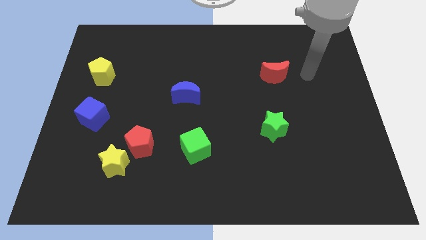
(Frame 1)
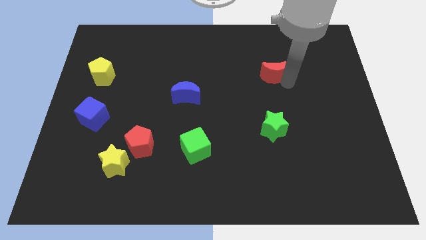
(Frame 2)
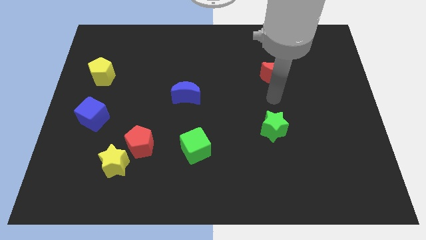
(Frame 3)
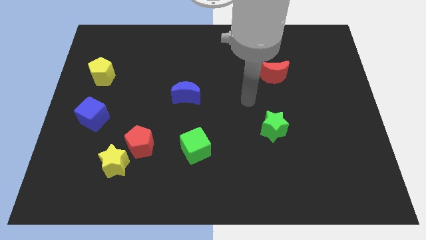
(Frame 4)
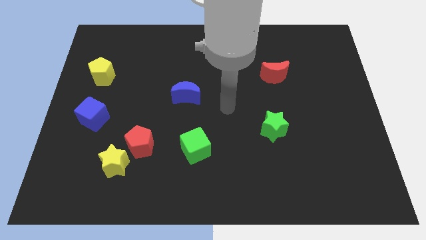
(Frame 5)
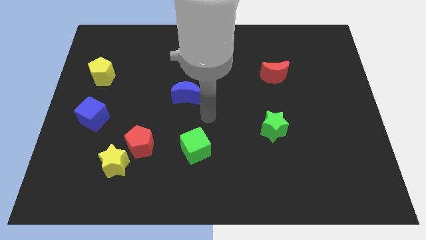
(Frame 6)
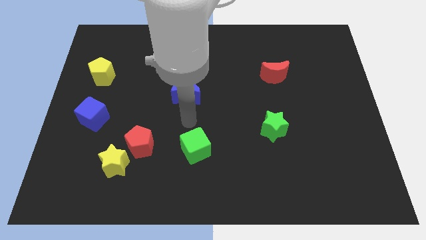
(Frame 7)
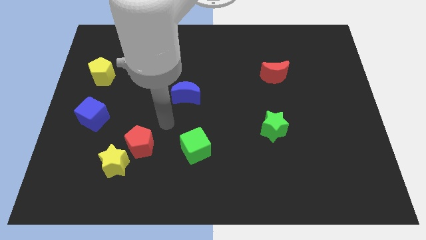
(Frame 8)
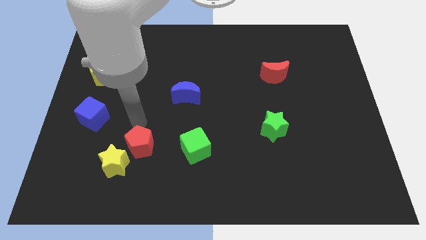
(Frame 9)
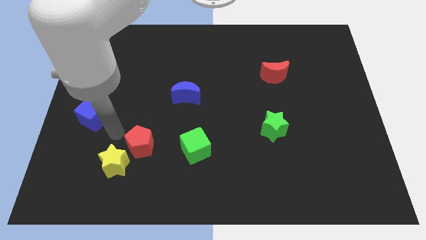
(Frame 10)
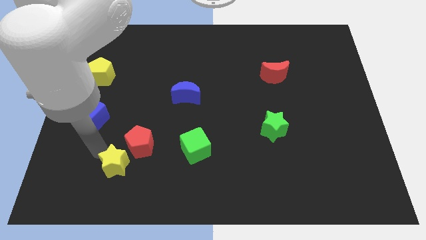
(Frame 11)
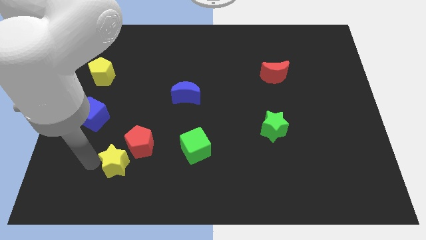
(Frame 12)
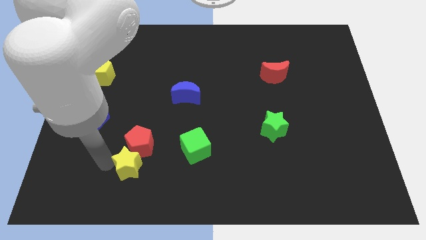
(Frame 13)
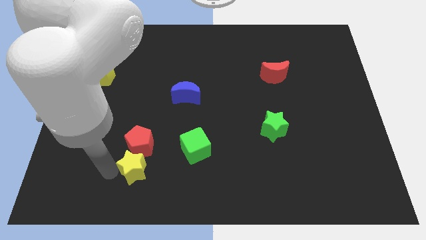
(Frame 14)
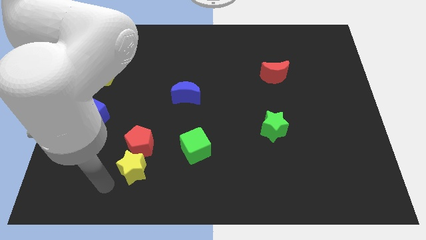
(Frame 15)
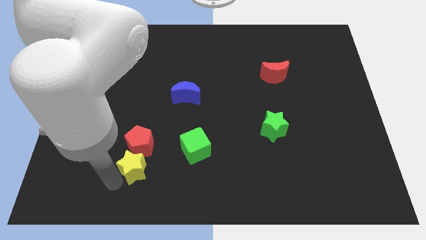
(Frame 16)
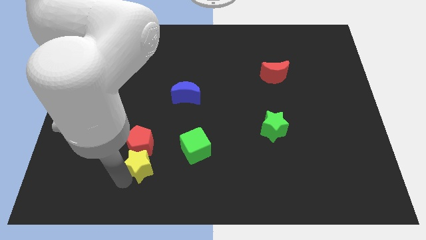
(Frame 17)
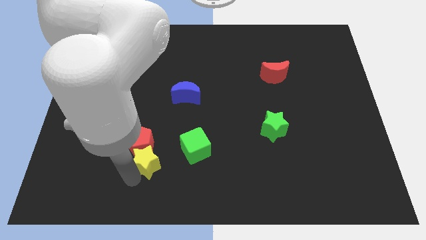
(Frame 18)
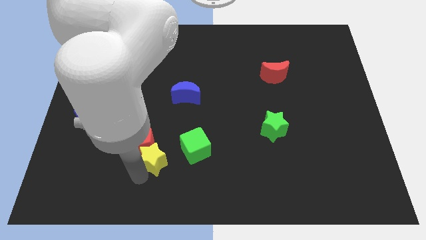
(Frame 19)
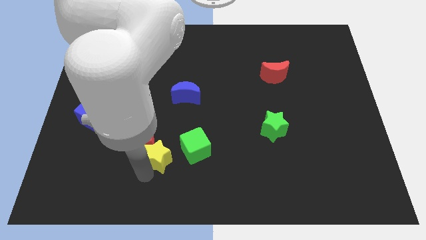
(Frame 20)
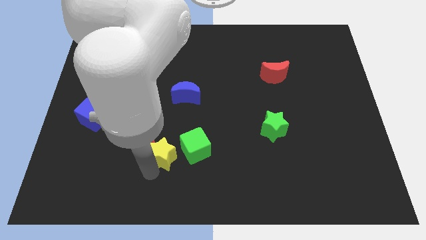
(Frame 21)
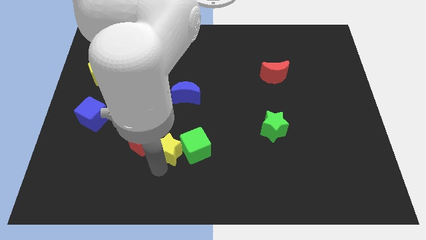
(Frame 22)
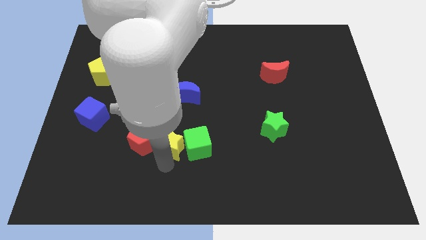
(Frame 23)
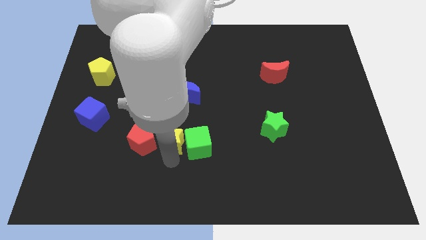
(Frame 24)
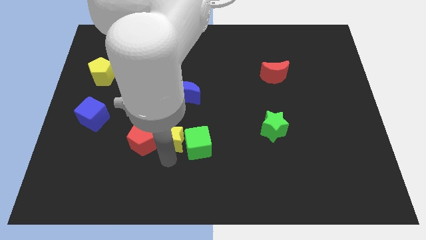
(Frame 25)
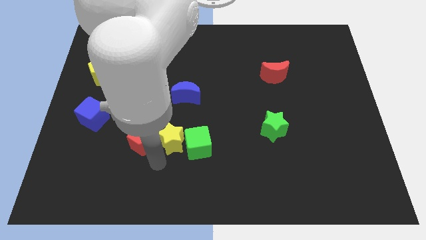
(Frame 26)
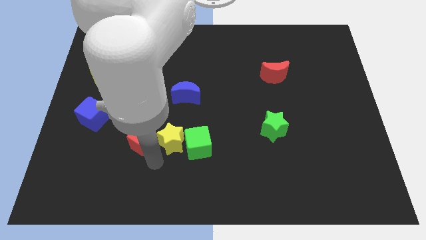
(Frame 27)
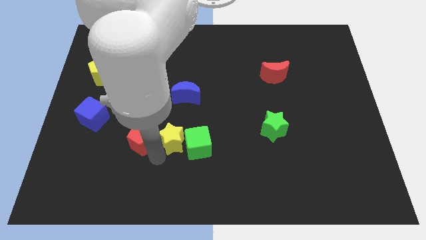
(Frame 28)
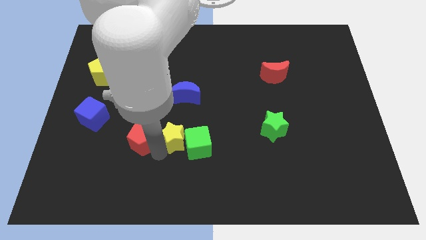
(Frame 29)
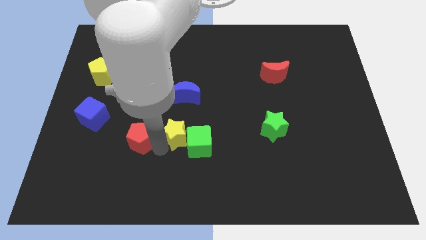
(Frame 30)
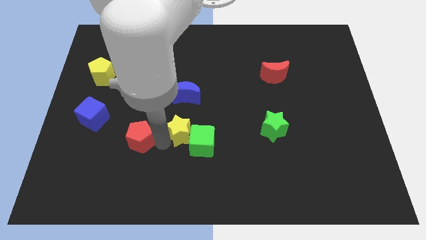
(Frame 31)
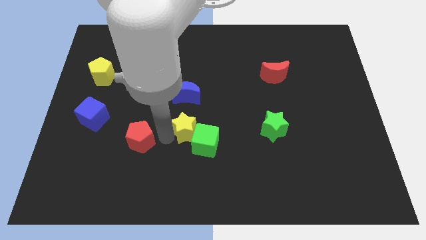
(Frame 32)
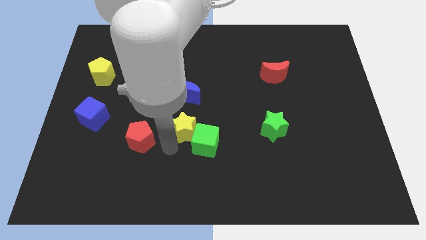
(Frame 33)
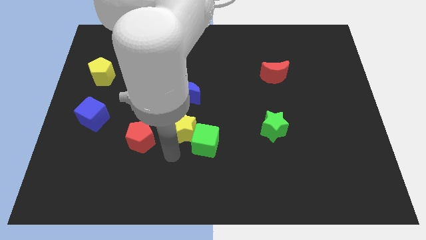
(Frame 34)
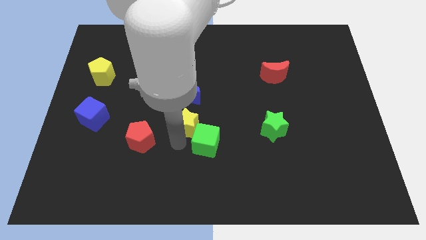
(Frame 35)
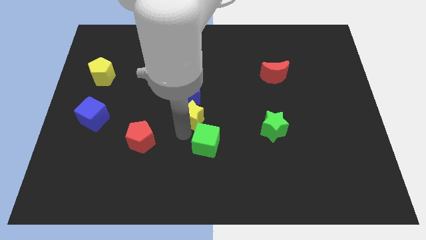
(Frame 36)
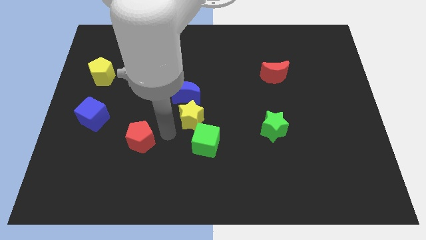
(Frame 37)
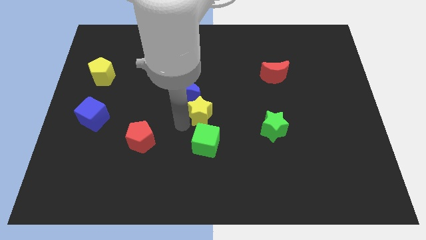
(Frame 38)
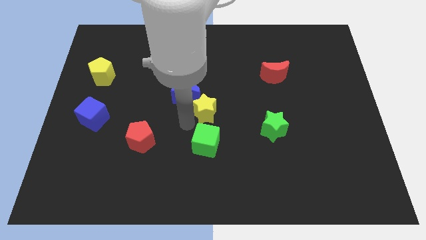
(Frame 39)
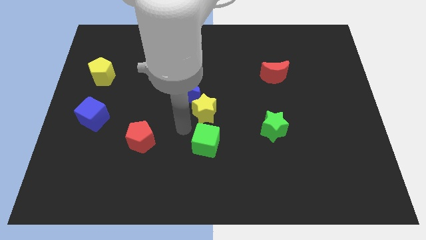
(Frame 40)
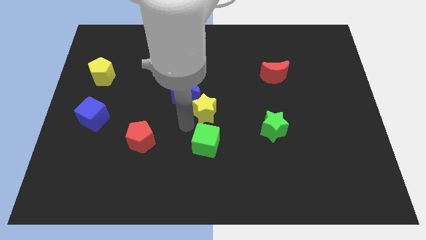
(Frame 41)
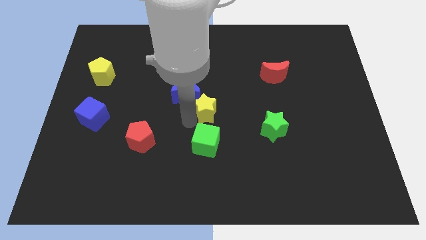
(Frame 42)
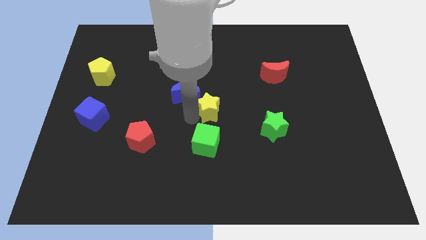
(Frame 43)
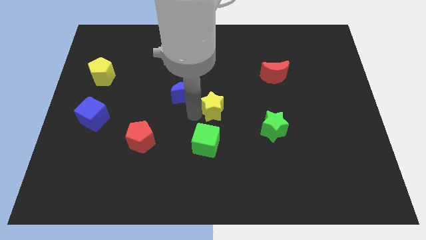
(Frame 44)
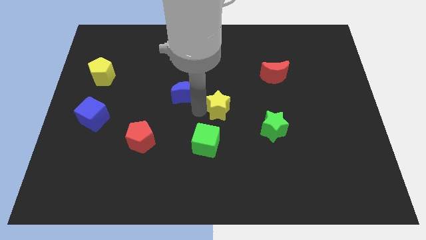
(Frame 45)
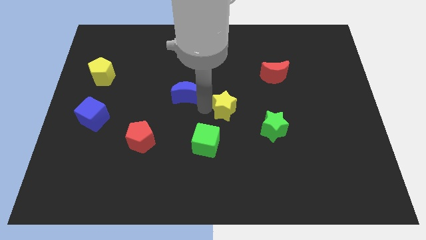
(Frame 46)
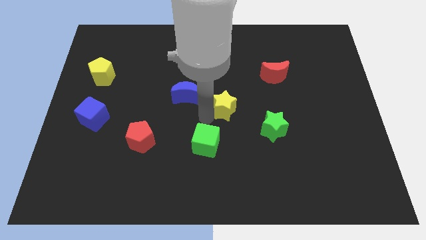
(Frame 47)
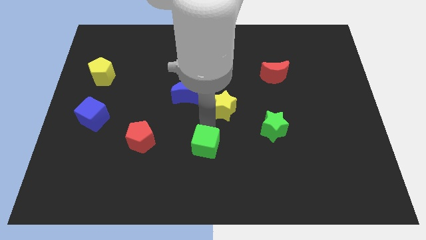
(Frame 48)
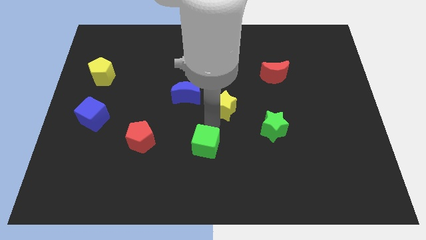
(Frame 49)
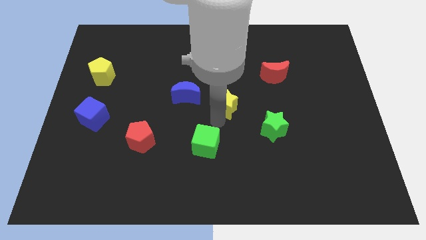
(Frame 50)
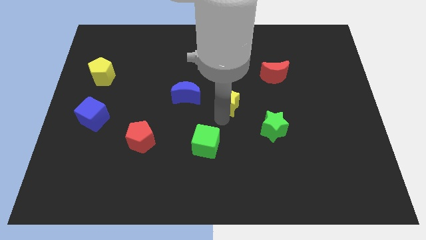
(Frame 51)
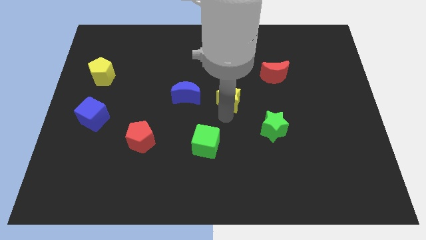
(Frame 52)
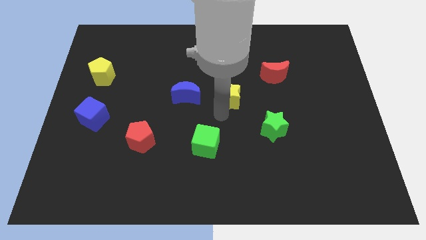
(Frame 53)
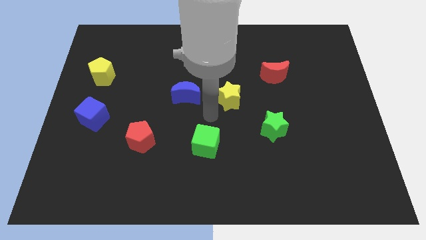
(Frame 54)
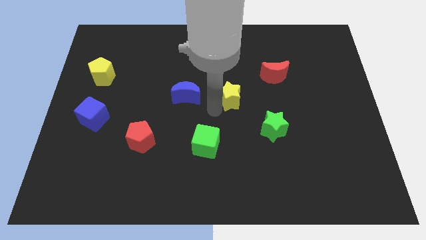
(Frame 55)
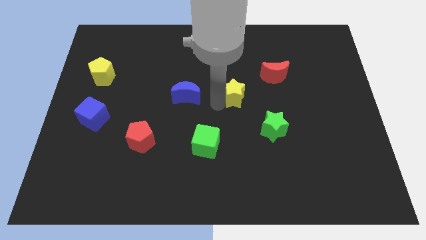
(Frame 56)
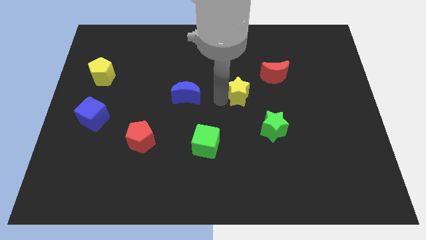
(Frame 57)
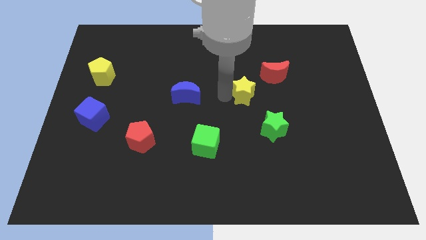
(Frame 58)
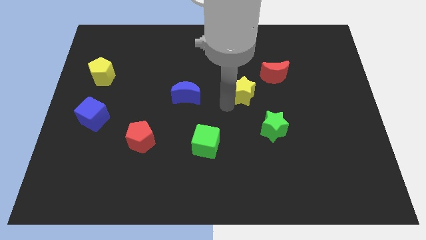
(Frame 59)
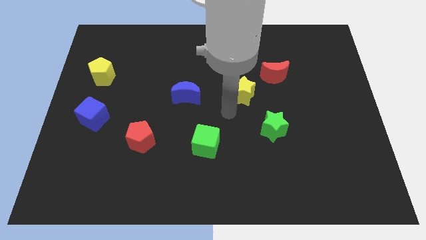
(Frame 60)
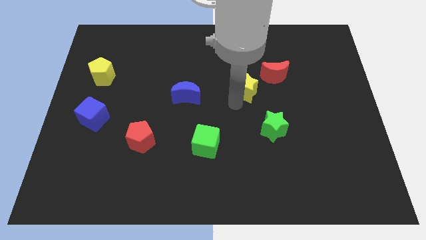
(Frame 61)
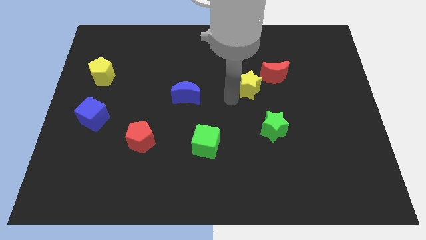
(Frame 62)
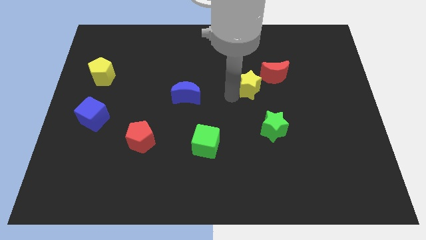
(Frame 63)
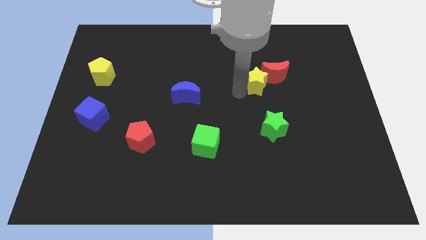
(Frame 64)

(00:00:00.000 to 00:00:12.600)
push the yellow star to the red moon

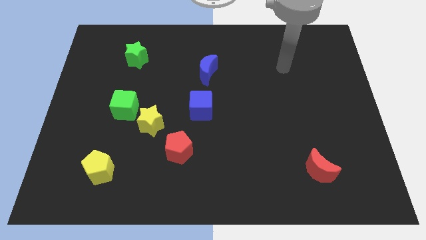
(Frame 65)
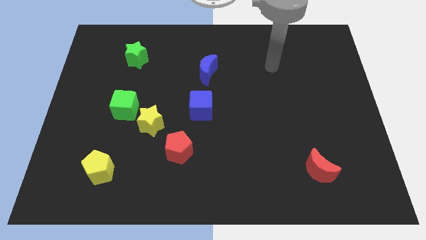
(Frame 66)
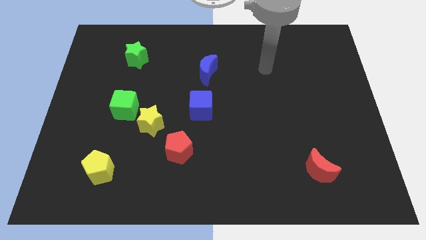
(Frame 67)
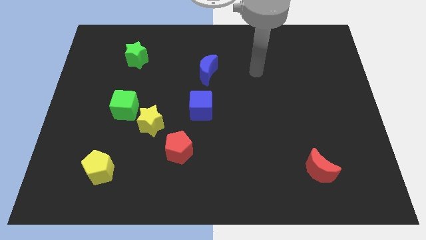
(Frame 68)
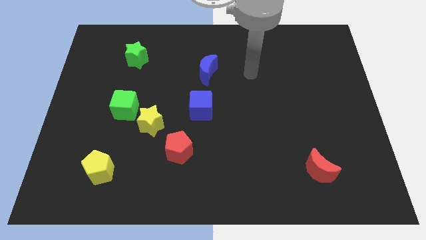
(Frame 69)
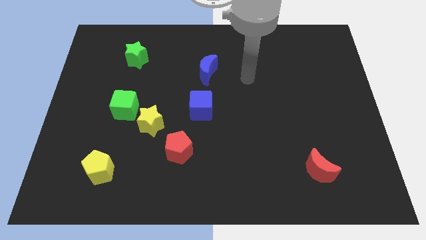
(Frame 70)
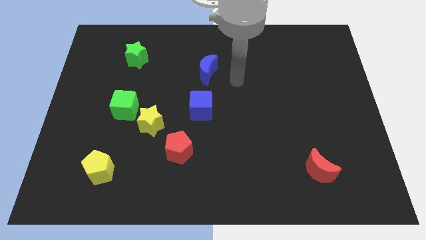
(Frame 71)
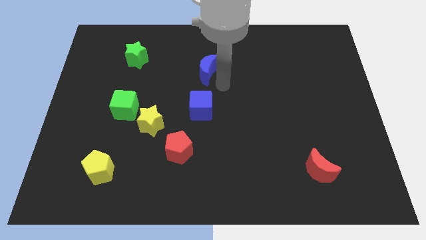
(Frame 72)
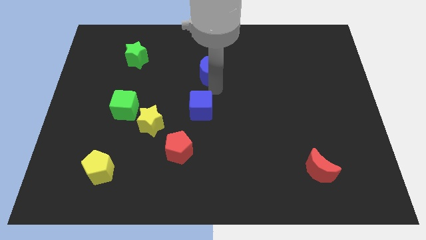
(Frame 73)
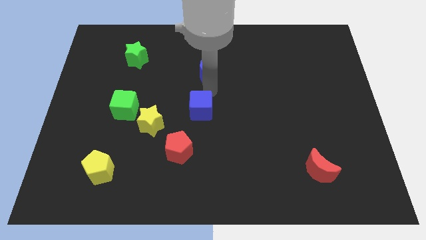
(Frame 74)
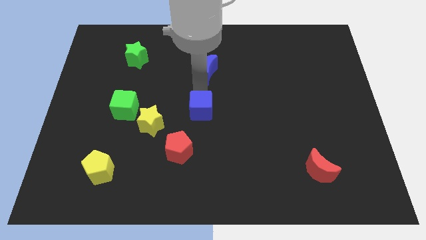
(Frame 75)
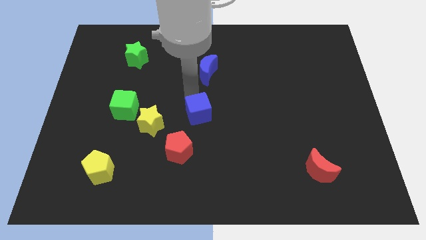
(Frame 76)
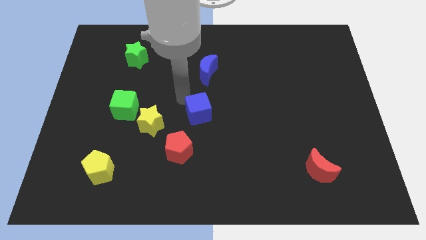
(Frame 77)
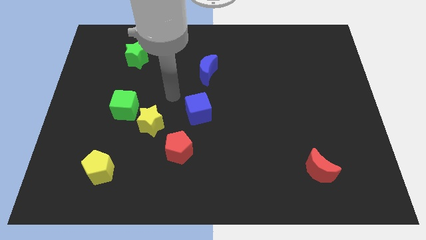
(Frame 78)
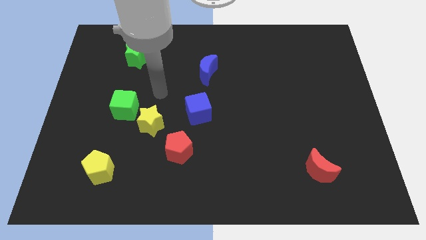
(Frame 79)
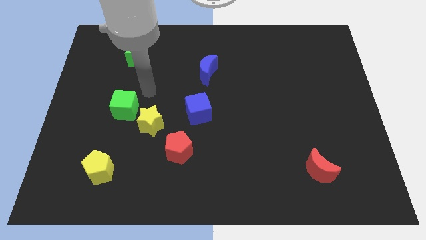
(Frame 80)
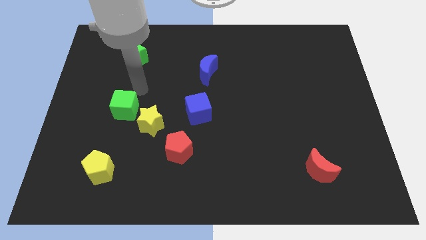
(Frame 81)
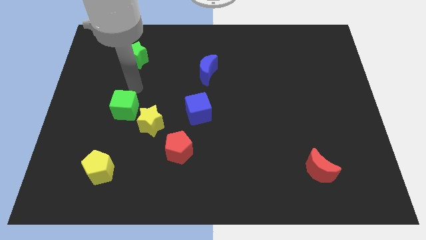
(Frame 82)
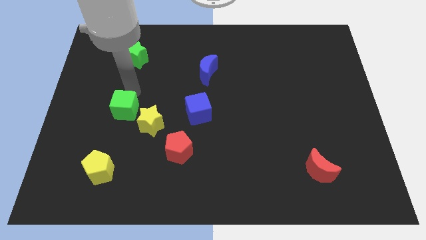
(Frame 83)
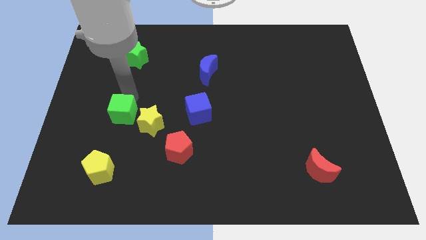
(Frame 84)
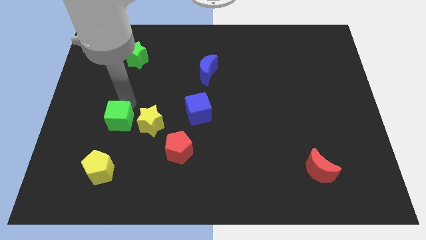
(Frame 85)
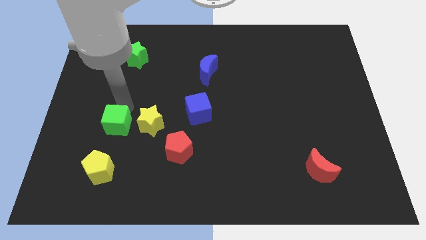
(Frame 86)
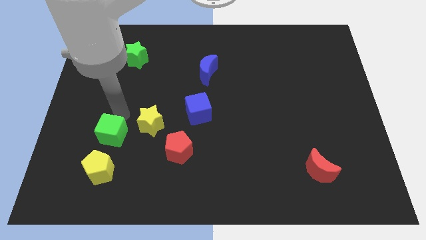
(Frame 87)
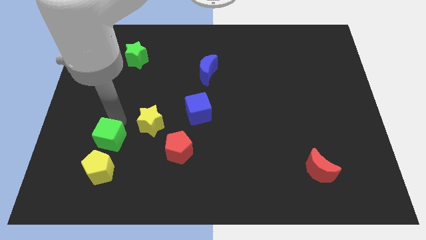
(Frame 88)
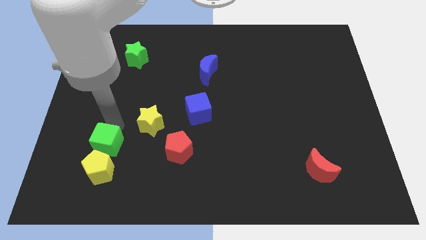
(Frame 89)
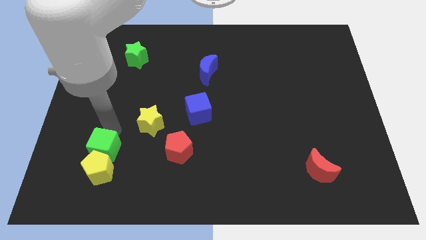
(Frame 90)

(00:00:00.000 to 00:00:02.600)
move the green cube to the yellow pentagon
